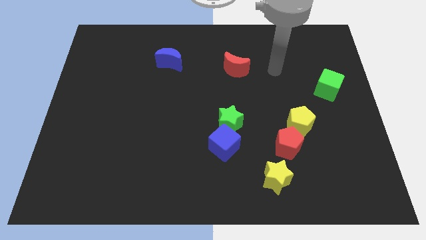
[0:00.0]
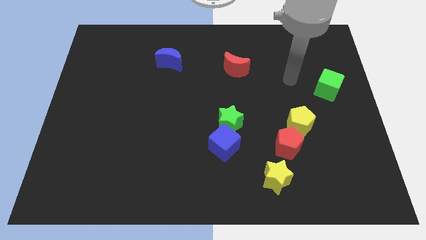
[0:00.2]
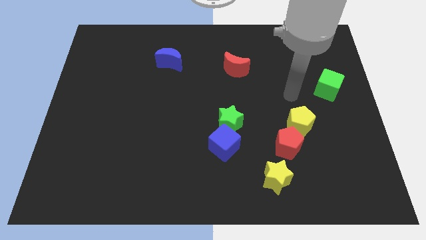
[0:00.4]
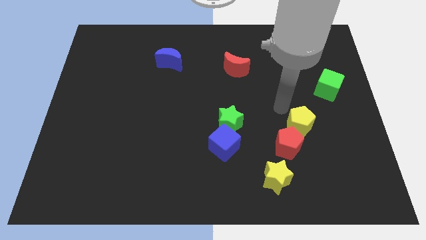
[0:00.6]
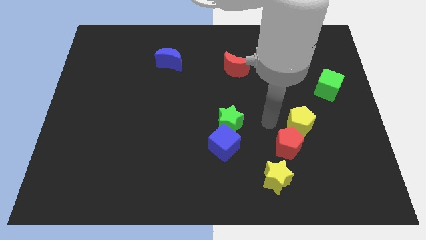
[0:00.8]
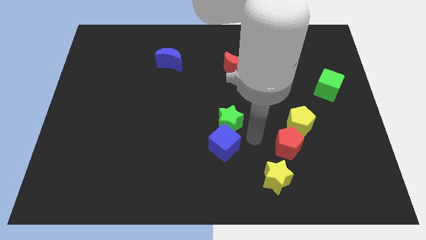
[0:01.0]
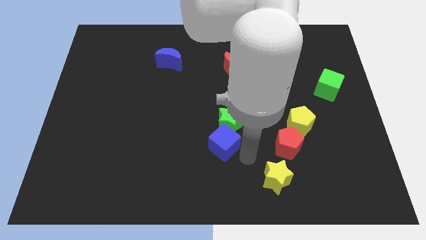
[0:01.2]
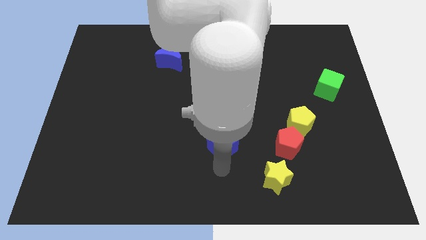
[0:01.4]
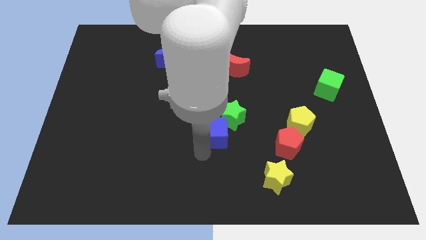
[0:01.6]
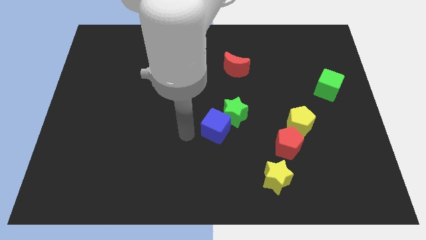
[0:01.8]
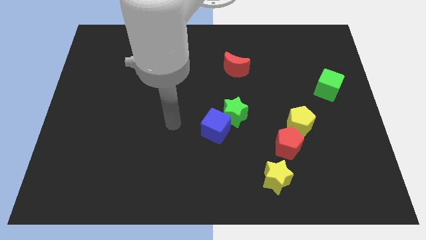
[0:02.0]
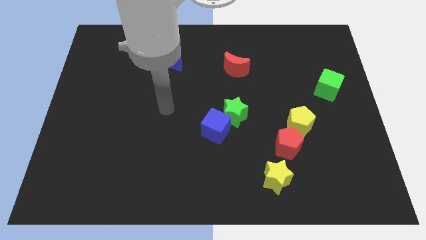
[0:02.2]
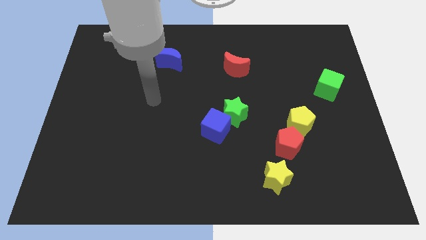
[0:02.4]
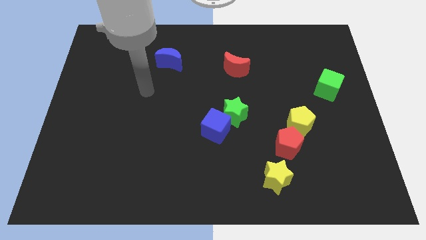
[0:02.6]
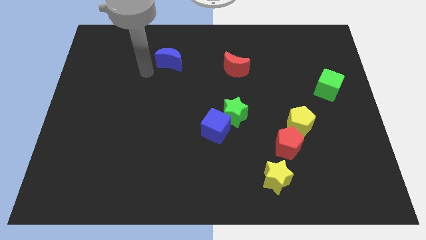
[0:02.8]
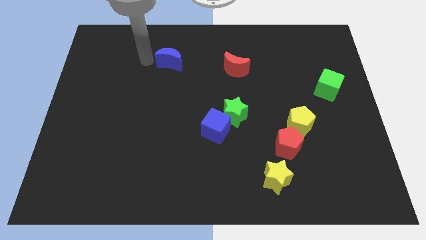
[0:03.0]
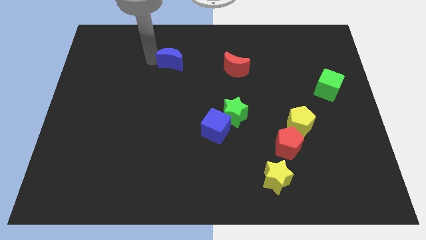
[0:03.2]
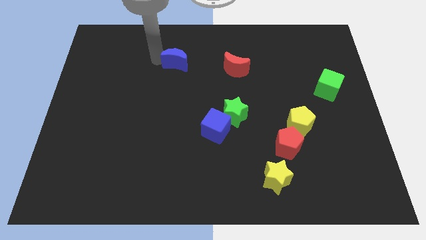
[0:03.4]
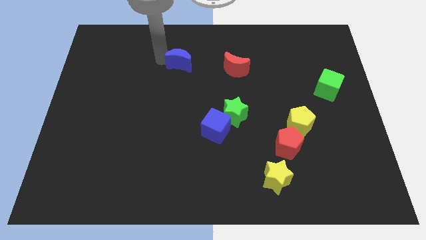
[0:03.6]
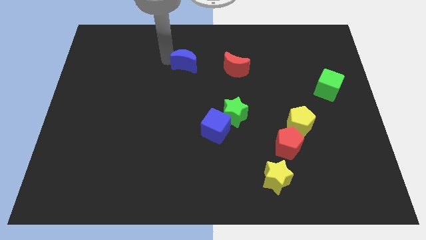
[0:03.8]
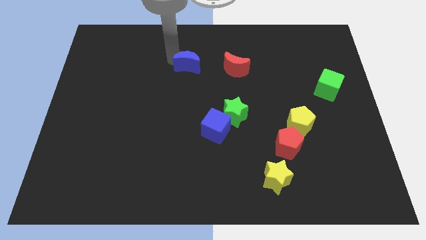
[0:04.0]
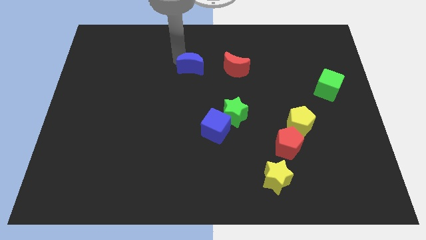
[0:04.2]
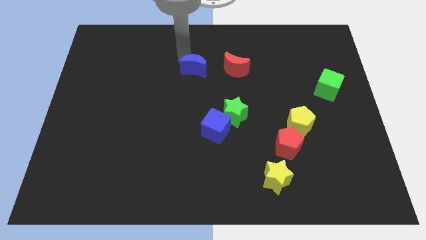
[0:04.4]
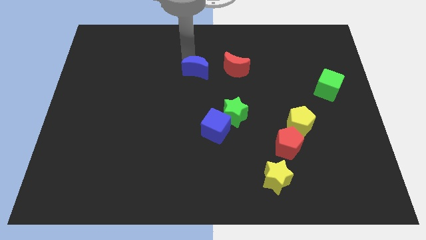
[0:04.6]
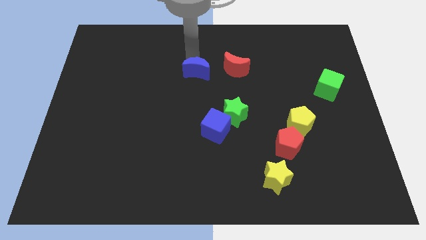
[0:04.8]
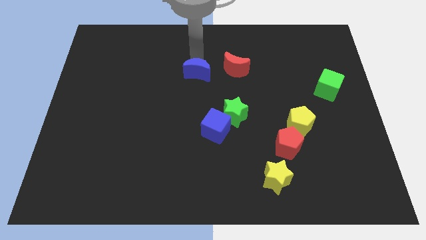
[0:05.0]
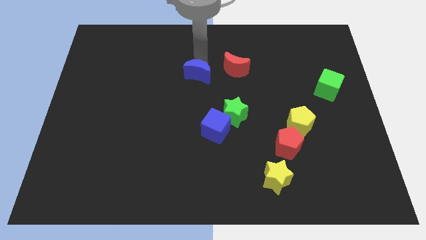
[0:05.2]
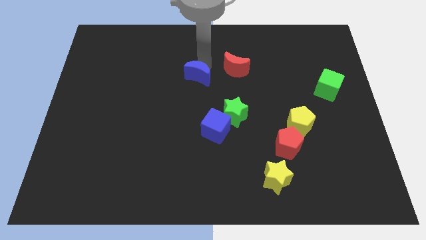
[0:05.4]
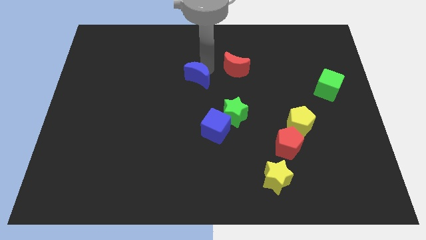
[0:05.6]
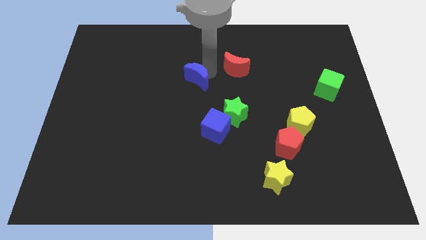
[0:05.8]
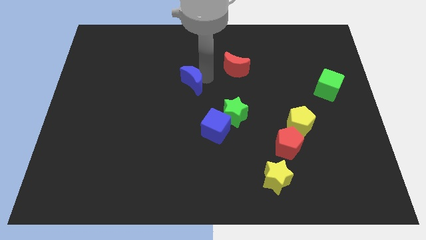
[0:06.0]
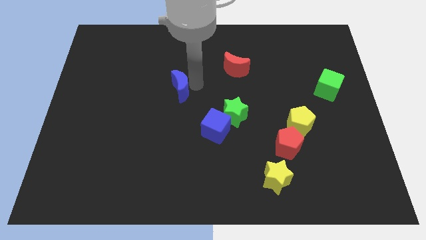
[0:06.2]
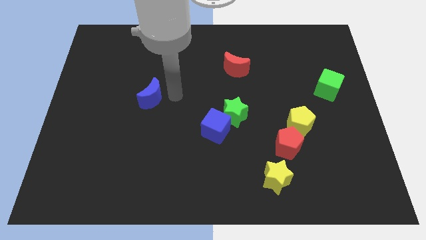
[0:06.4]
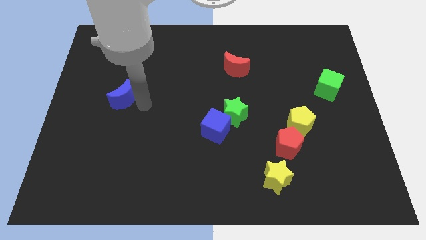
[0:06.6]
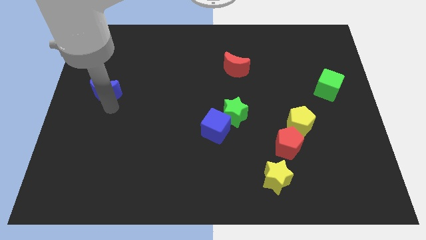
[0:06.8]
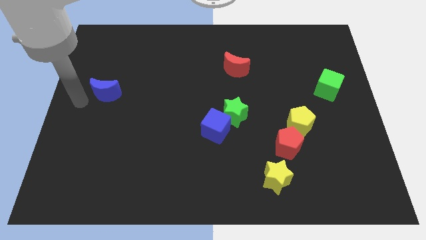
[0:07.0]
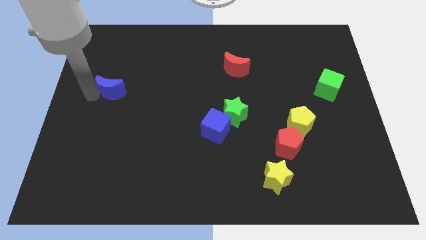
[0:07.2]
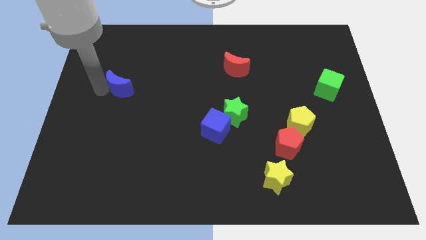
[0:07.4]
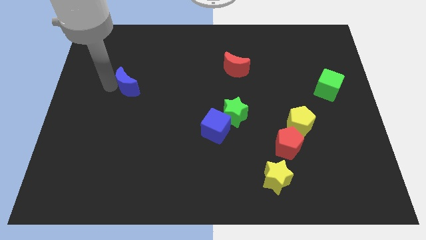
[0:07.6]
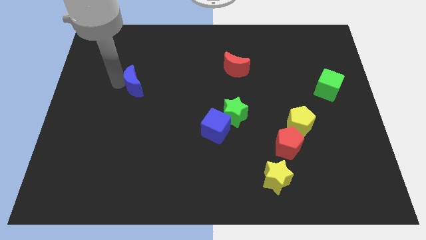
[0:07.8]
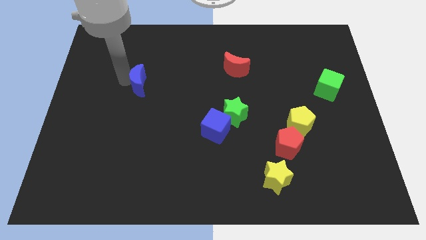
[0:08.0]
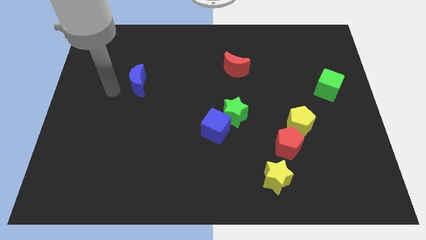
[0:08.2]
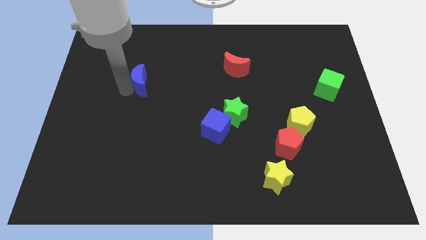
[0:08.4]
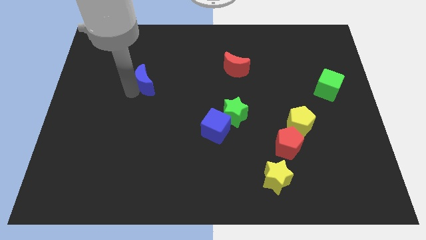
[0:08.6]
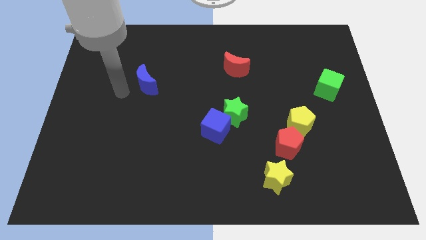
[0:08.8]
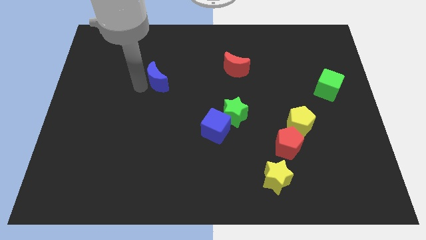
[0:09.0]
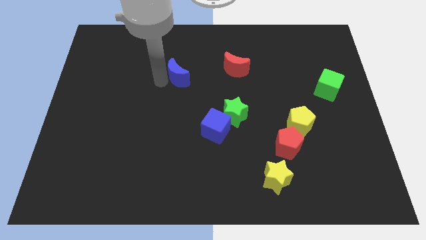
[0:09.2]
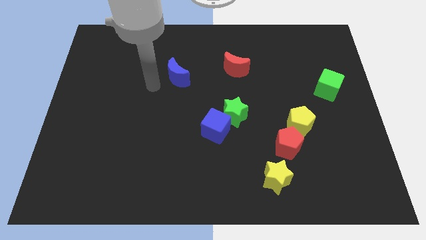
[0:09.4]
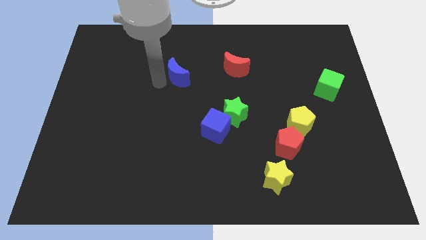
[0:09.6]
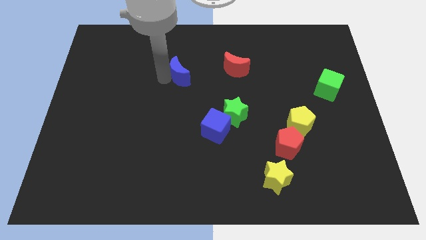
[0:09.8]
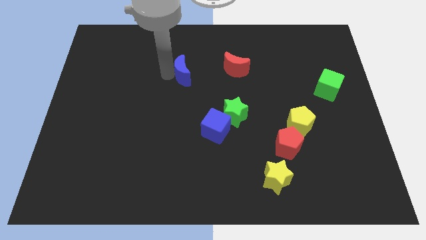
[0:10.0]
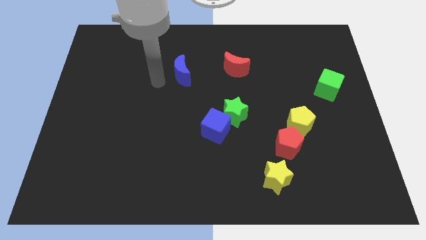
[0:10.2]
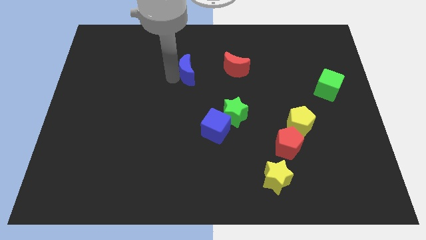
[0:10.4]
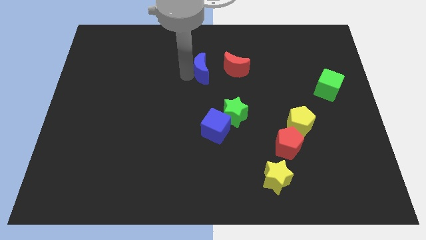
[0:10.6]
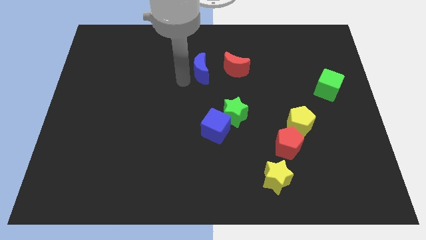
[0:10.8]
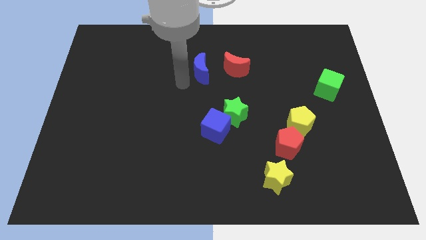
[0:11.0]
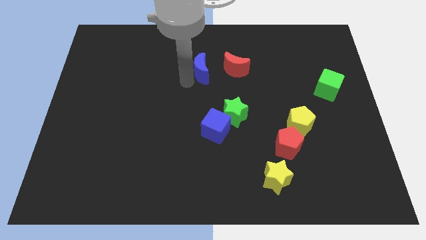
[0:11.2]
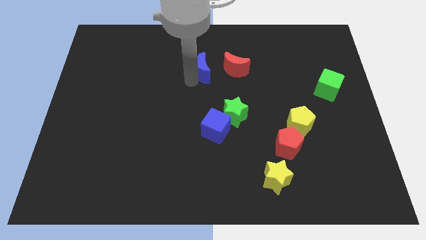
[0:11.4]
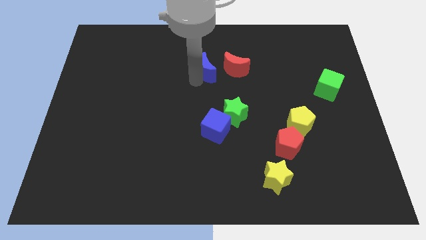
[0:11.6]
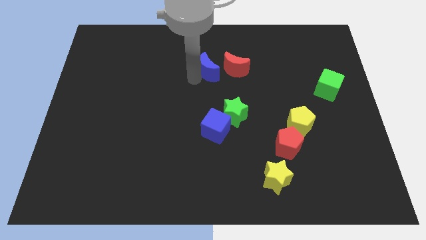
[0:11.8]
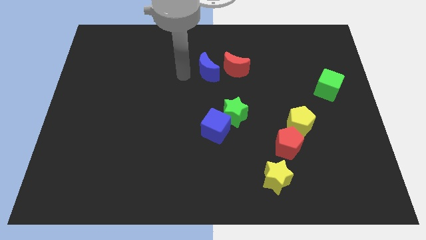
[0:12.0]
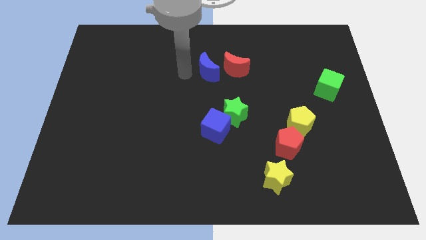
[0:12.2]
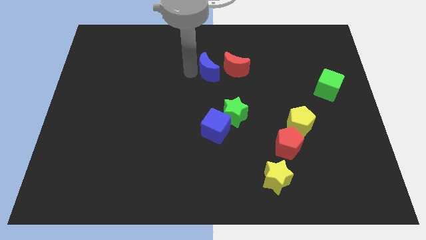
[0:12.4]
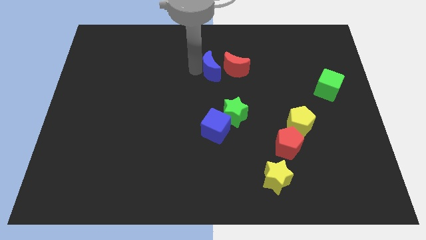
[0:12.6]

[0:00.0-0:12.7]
slide the blue moon close to the red moon

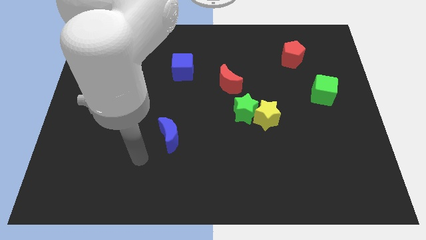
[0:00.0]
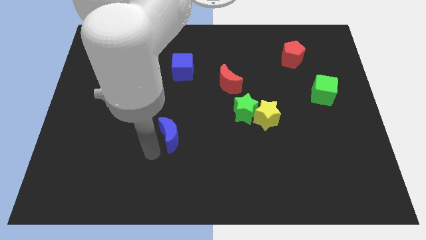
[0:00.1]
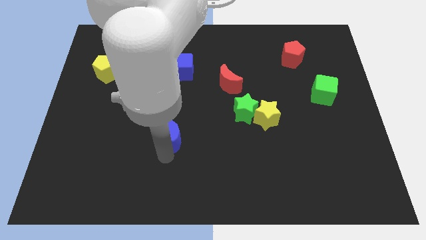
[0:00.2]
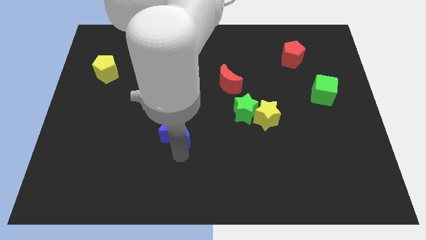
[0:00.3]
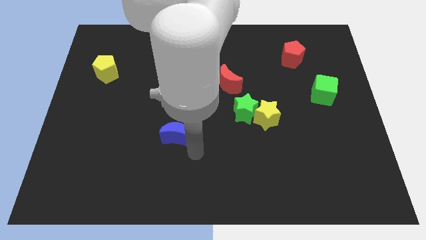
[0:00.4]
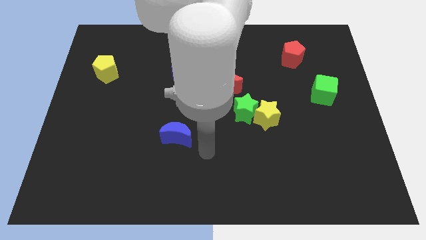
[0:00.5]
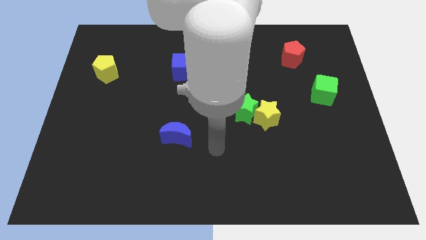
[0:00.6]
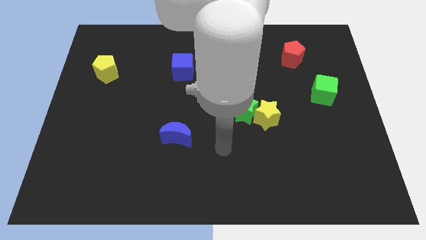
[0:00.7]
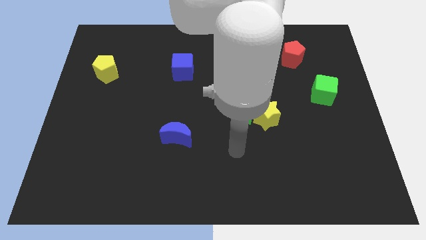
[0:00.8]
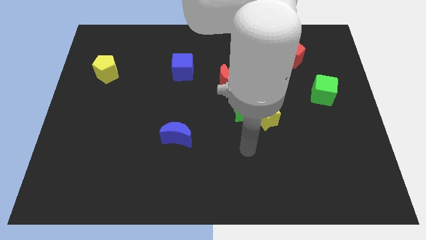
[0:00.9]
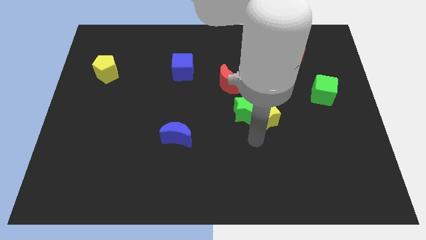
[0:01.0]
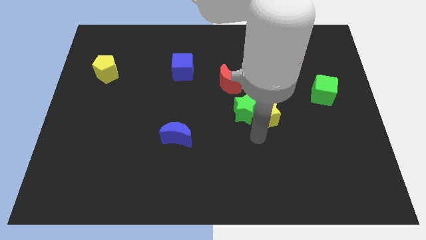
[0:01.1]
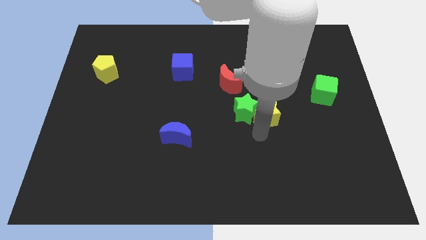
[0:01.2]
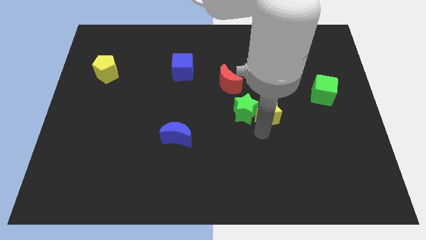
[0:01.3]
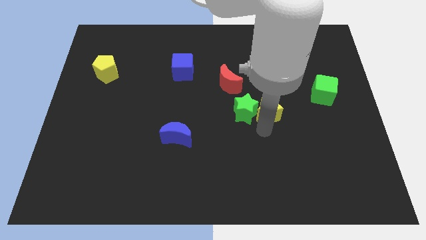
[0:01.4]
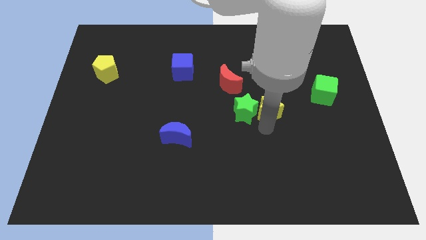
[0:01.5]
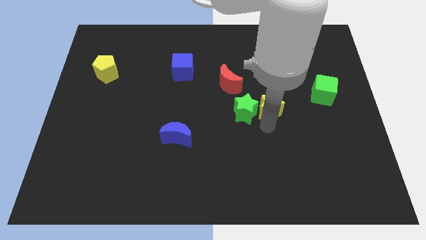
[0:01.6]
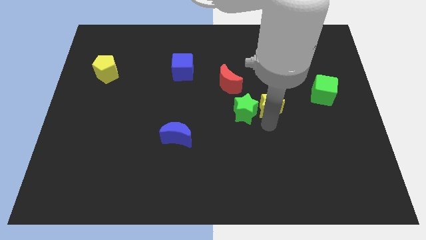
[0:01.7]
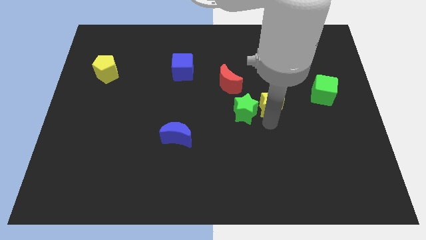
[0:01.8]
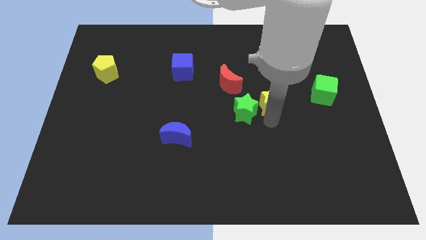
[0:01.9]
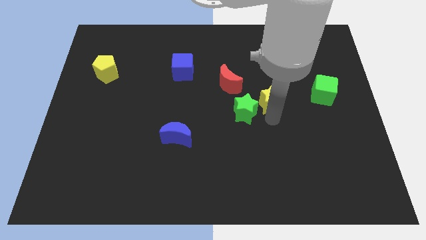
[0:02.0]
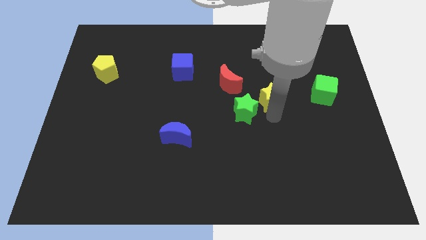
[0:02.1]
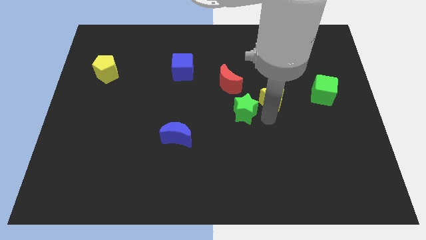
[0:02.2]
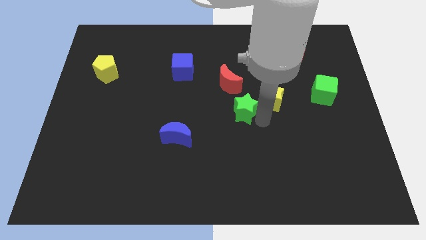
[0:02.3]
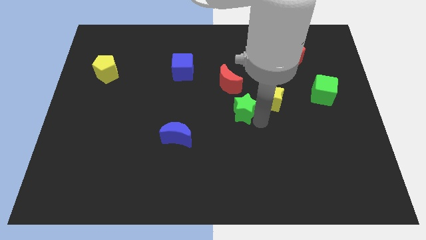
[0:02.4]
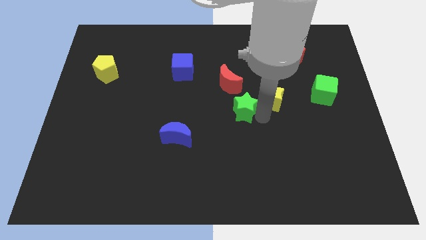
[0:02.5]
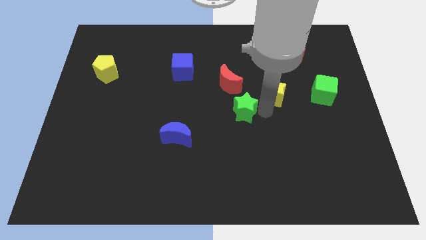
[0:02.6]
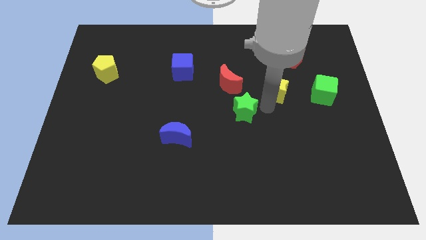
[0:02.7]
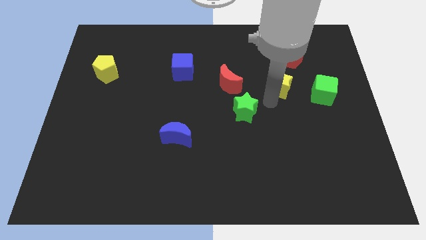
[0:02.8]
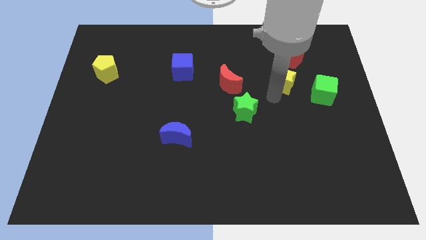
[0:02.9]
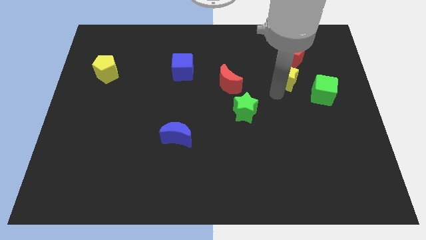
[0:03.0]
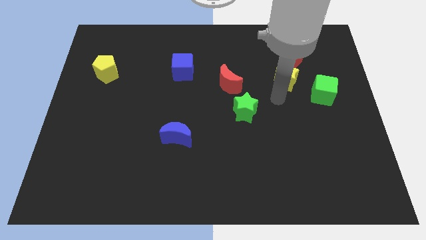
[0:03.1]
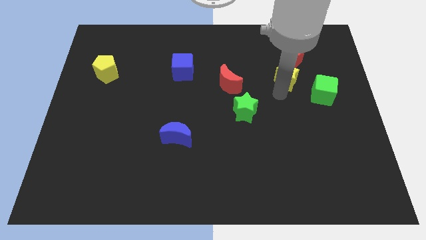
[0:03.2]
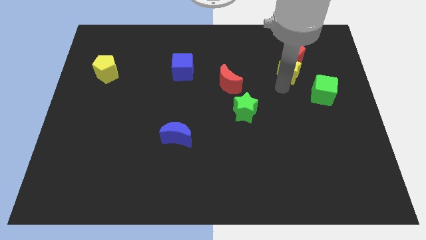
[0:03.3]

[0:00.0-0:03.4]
put the yellow star next to the red pentagon
